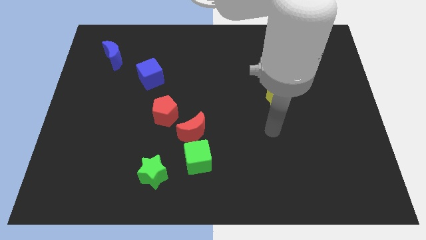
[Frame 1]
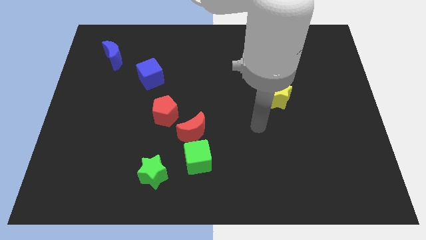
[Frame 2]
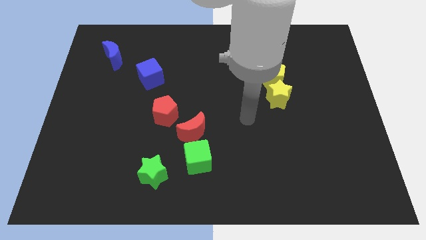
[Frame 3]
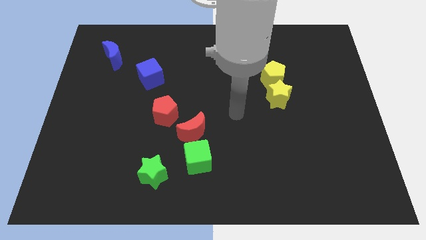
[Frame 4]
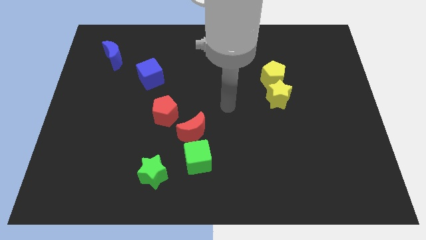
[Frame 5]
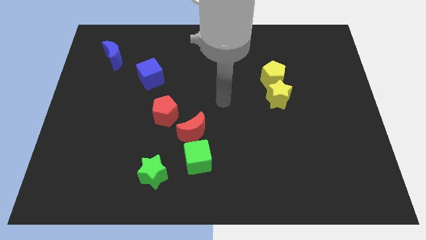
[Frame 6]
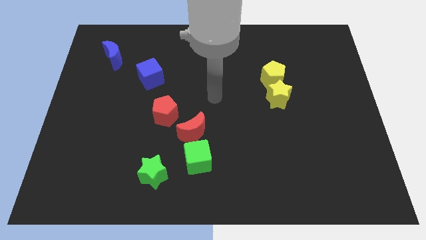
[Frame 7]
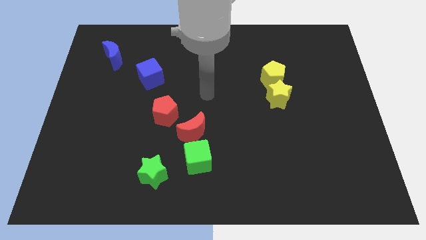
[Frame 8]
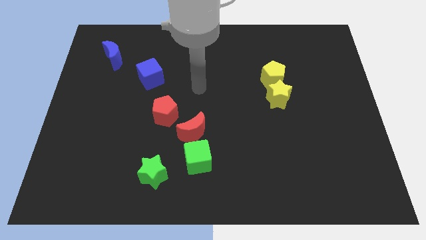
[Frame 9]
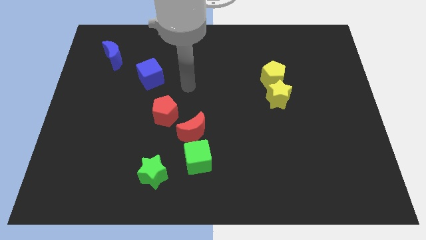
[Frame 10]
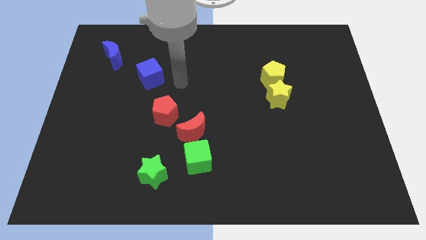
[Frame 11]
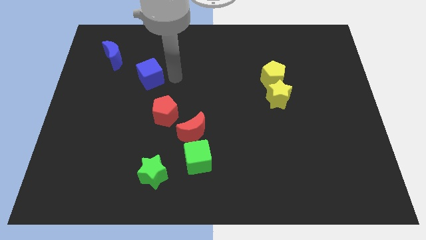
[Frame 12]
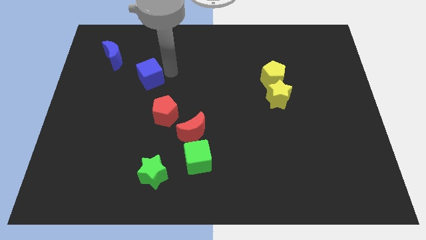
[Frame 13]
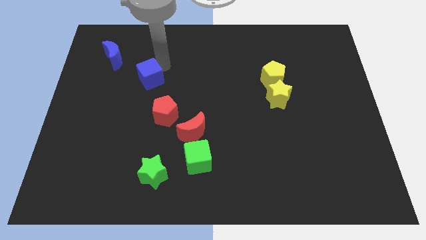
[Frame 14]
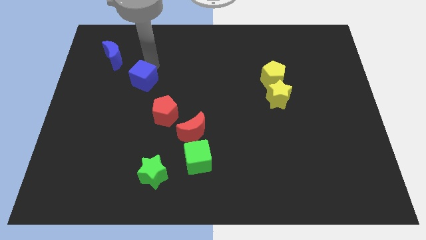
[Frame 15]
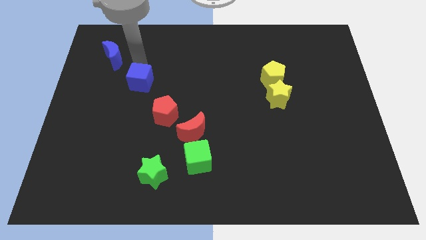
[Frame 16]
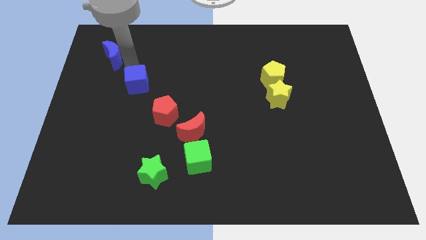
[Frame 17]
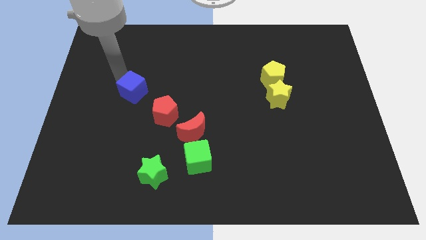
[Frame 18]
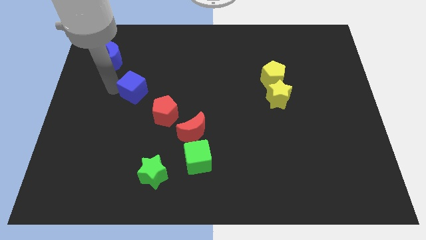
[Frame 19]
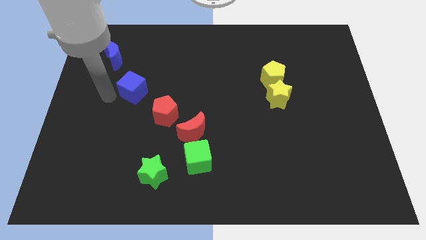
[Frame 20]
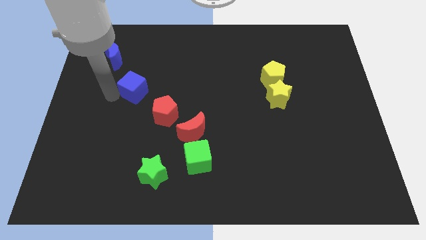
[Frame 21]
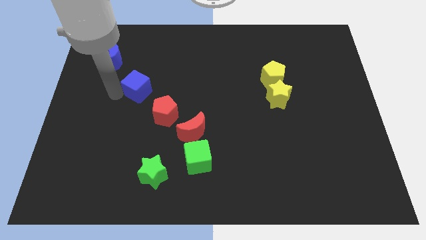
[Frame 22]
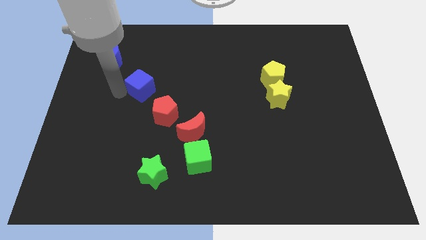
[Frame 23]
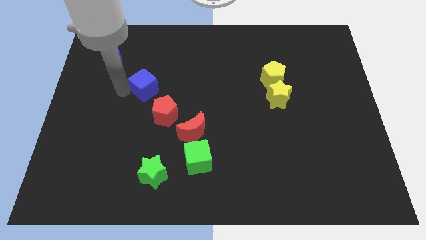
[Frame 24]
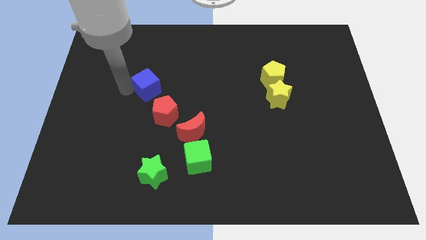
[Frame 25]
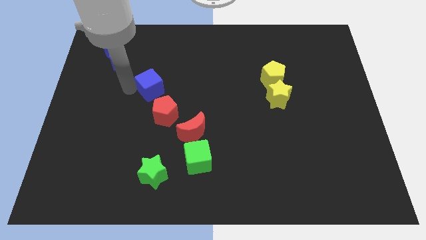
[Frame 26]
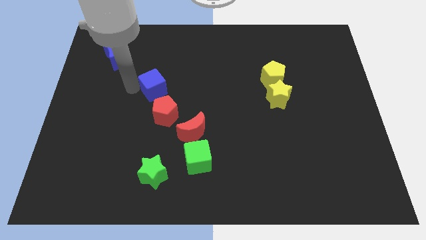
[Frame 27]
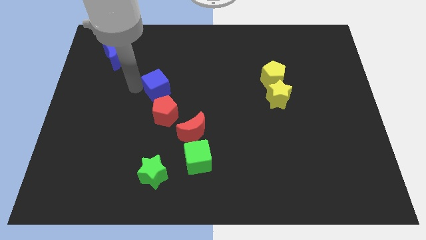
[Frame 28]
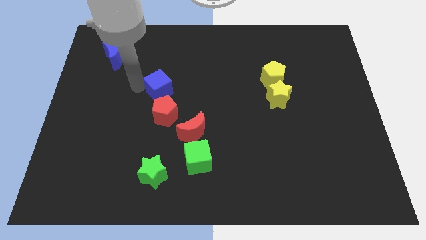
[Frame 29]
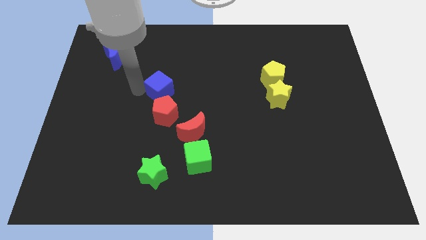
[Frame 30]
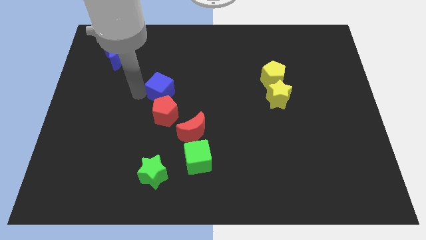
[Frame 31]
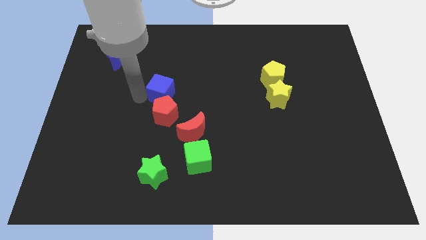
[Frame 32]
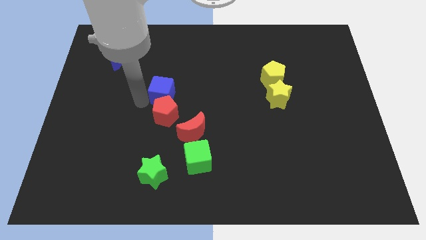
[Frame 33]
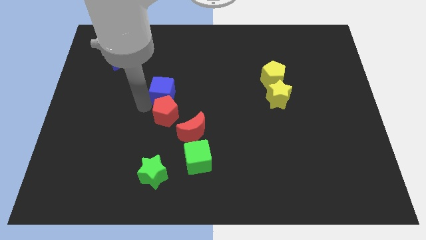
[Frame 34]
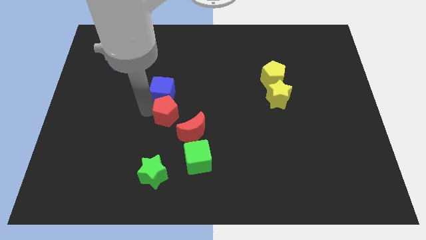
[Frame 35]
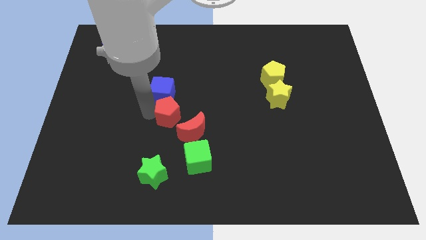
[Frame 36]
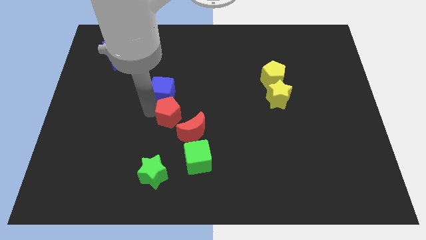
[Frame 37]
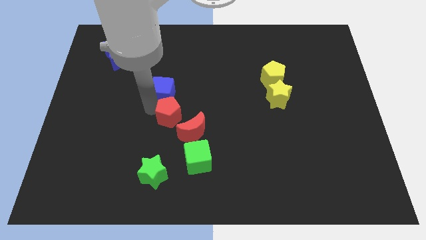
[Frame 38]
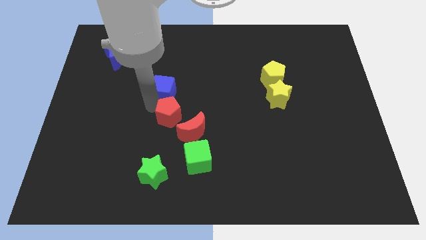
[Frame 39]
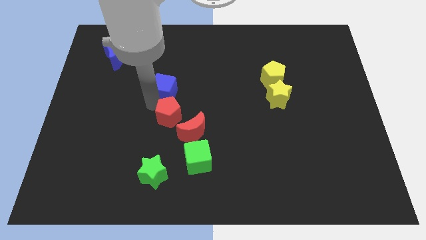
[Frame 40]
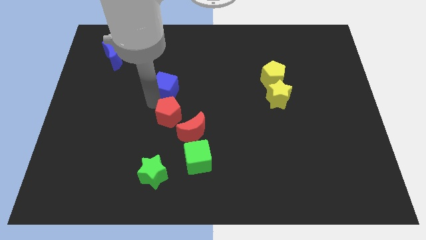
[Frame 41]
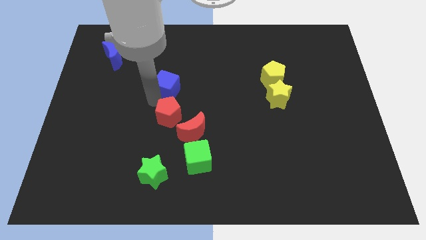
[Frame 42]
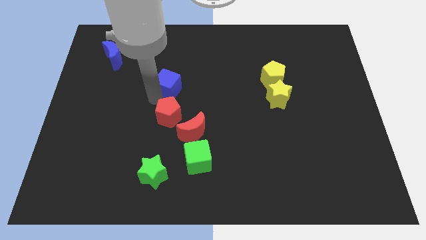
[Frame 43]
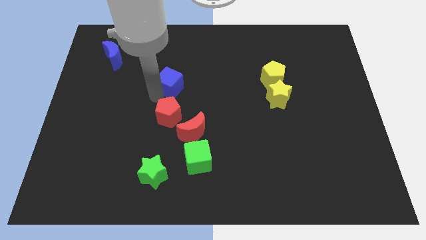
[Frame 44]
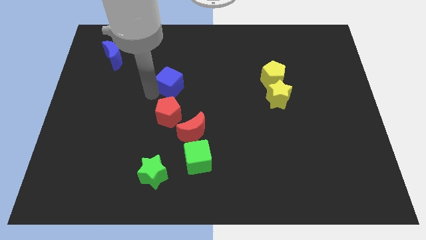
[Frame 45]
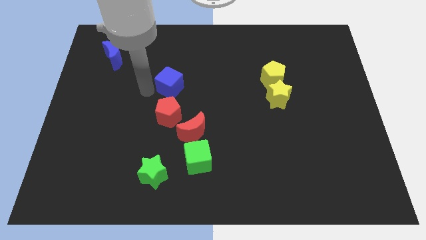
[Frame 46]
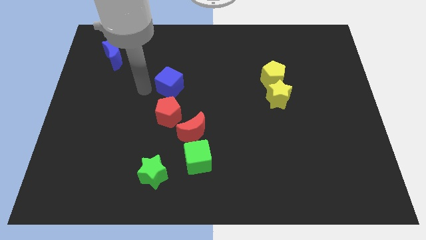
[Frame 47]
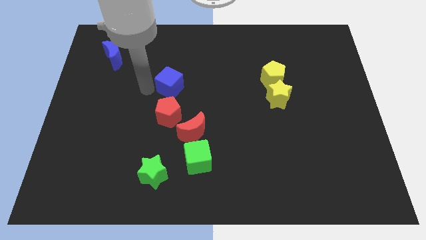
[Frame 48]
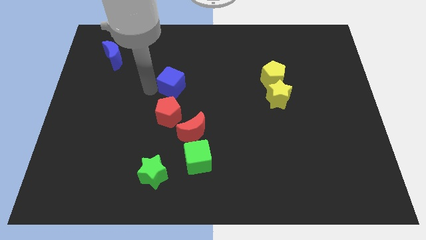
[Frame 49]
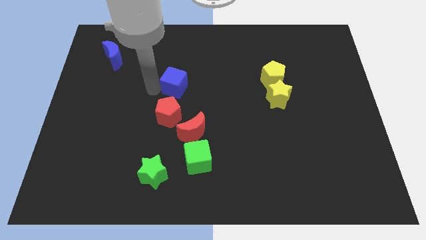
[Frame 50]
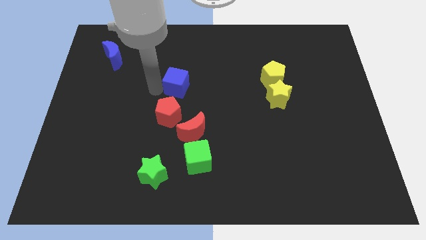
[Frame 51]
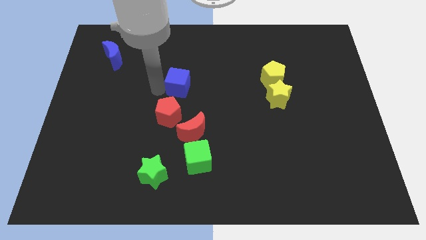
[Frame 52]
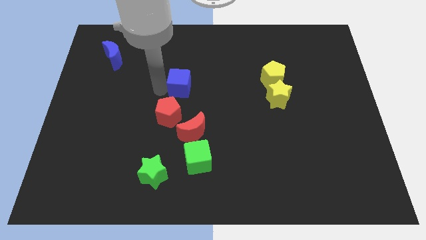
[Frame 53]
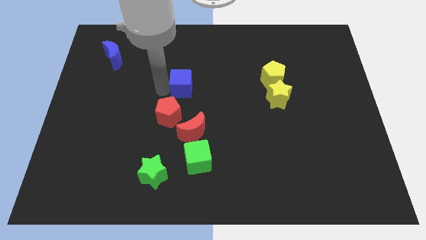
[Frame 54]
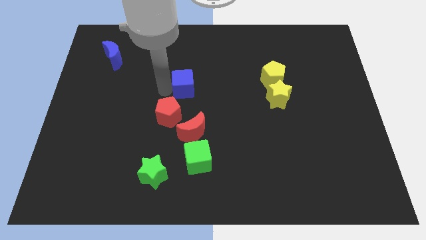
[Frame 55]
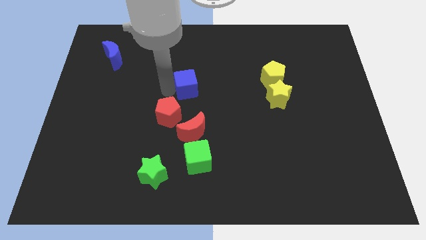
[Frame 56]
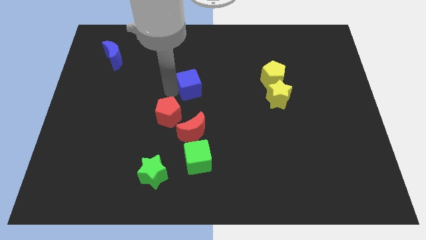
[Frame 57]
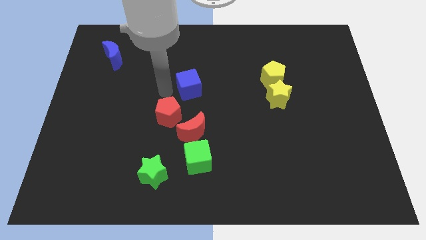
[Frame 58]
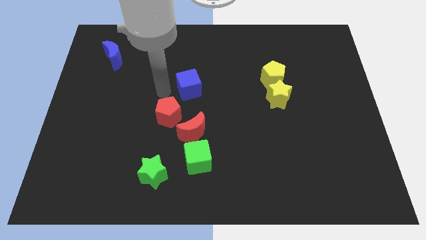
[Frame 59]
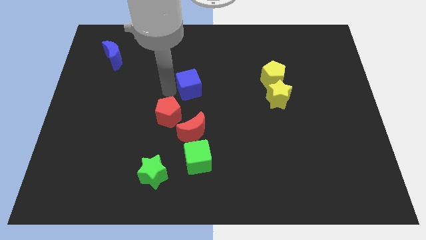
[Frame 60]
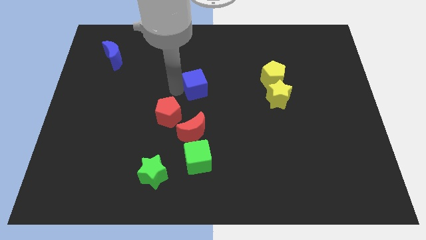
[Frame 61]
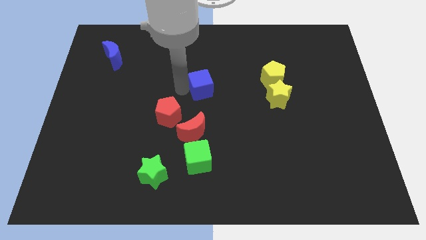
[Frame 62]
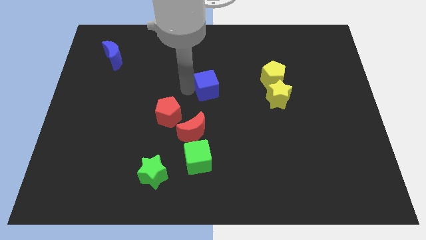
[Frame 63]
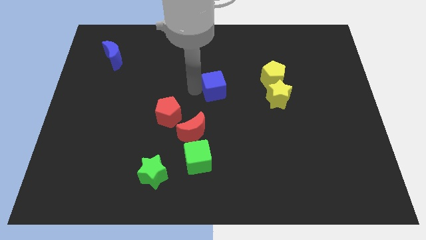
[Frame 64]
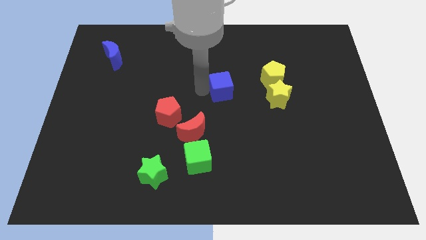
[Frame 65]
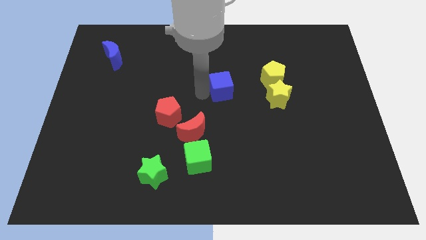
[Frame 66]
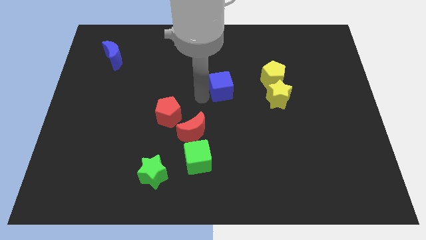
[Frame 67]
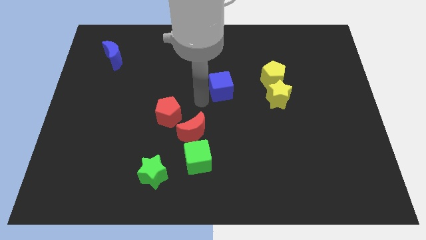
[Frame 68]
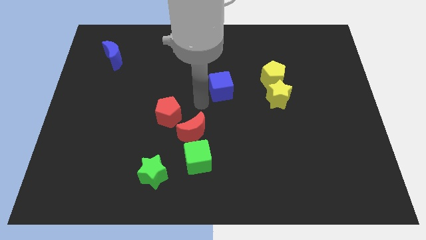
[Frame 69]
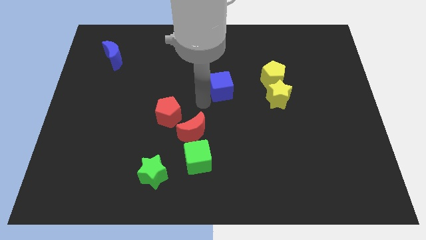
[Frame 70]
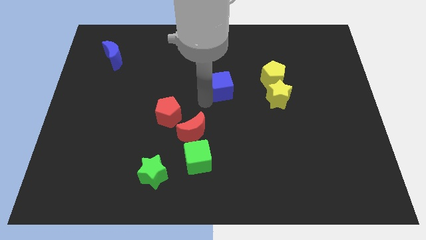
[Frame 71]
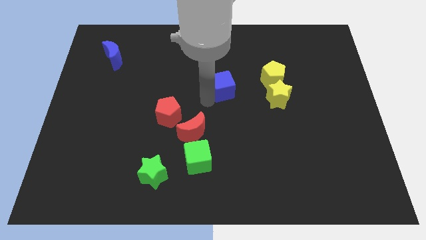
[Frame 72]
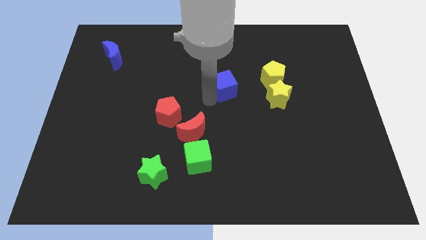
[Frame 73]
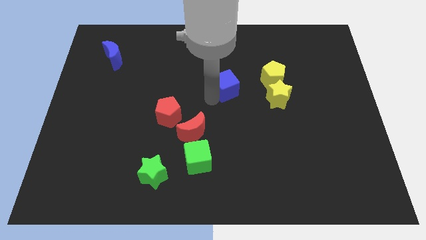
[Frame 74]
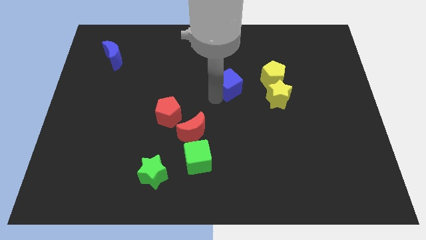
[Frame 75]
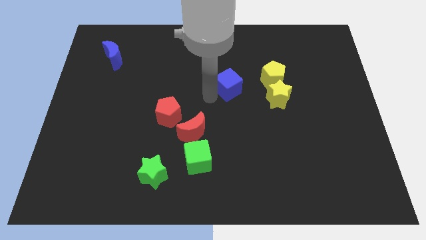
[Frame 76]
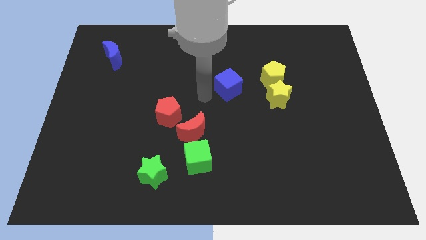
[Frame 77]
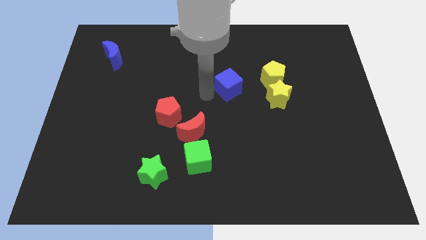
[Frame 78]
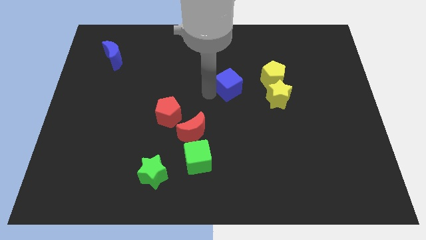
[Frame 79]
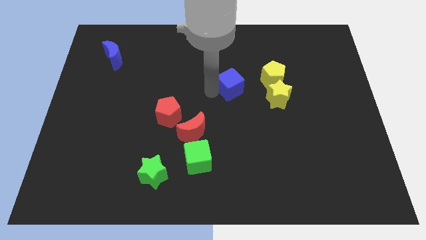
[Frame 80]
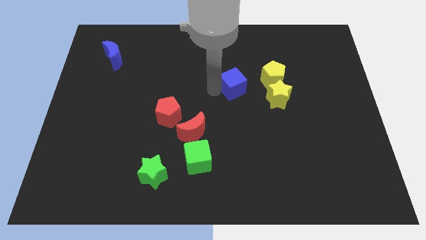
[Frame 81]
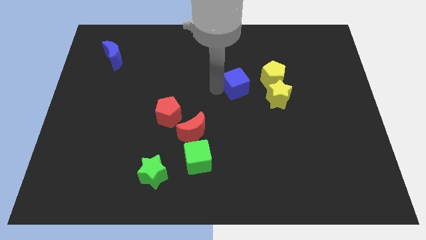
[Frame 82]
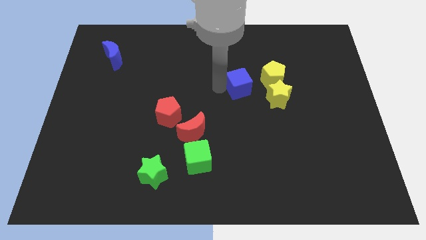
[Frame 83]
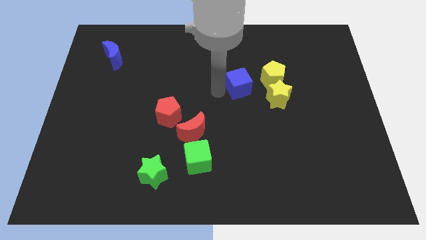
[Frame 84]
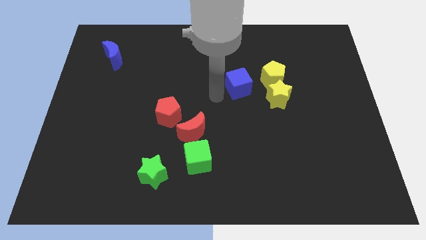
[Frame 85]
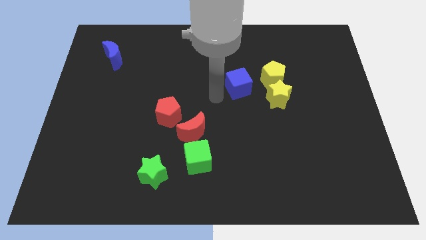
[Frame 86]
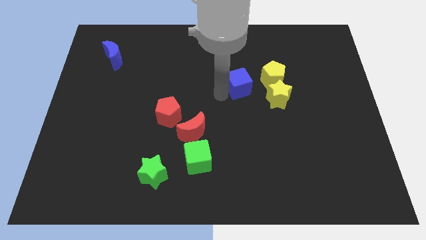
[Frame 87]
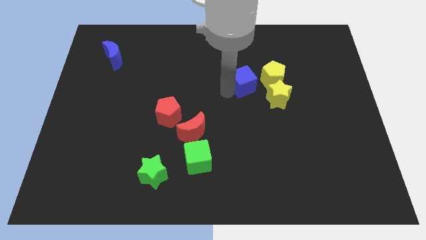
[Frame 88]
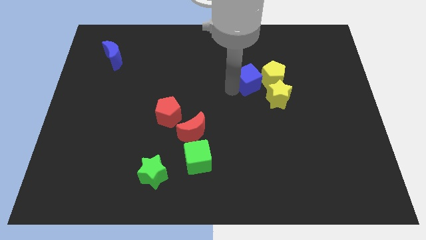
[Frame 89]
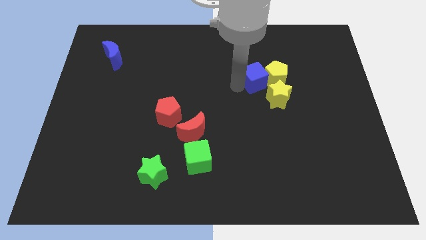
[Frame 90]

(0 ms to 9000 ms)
slide the blue cube towards the yellow pentagon
